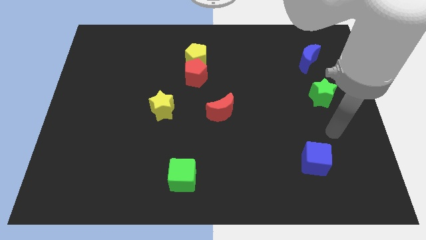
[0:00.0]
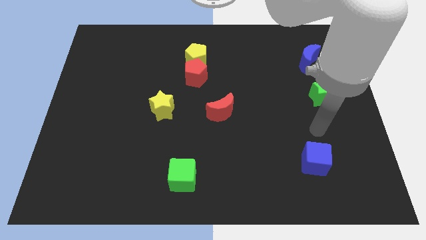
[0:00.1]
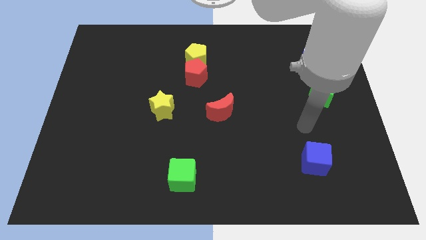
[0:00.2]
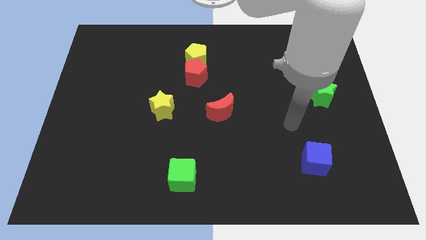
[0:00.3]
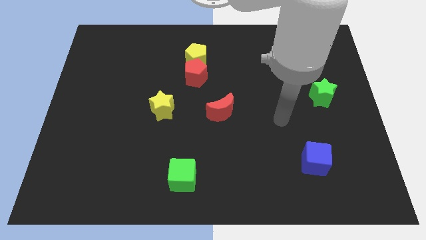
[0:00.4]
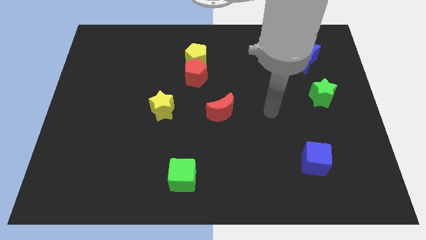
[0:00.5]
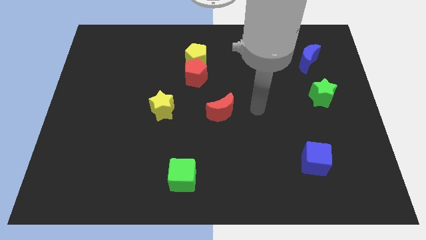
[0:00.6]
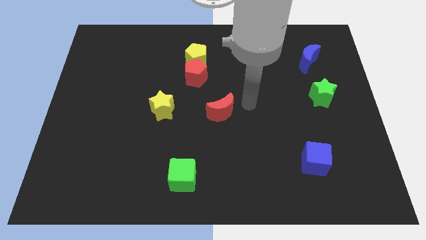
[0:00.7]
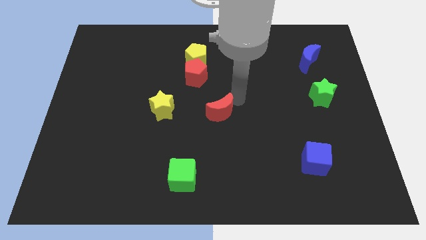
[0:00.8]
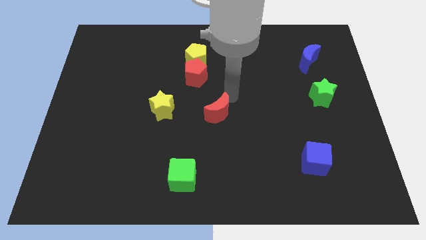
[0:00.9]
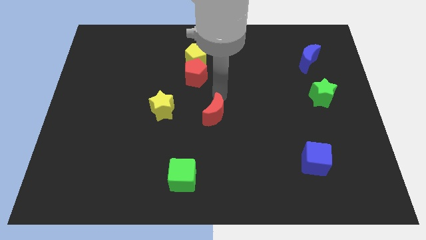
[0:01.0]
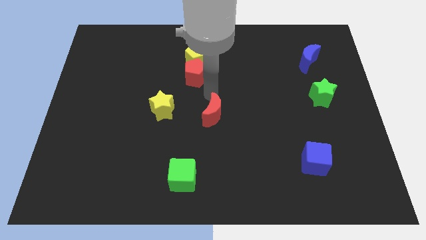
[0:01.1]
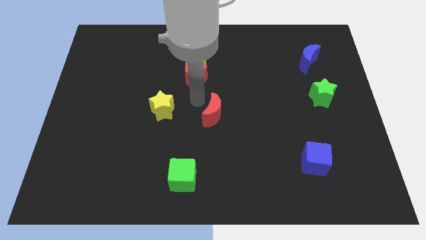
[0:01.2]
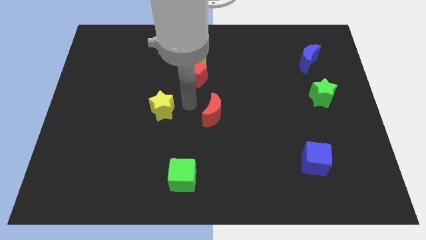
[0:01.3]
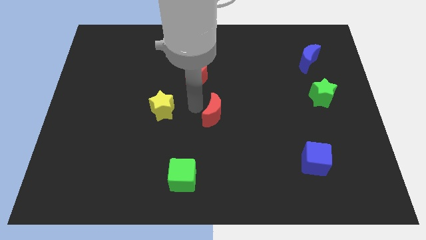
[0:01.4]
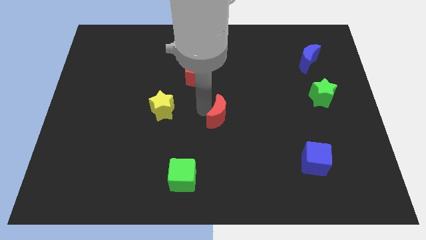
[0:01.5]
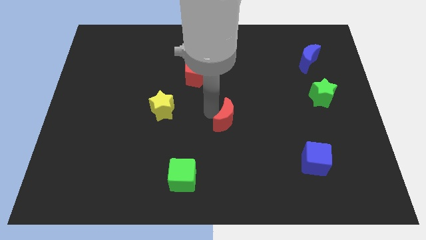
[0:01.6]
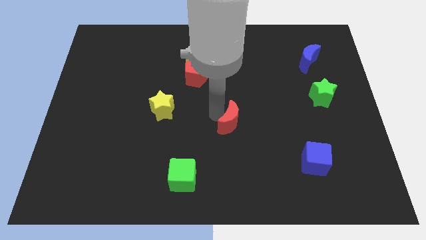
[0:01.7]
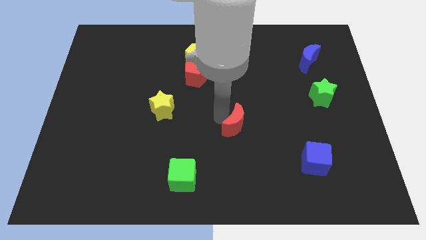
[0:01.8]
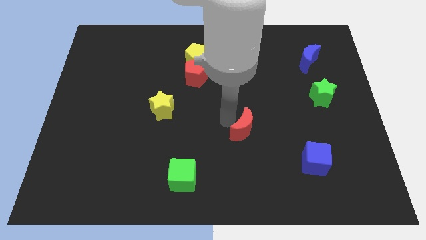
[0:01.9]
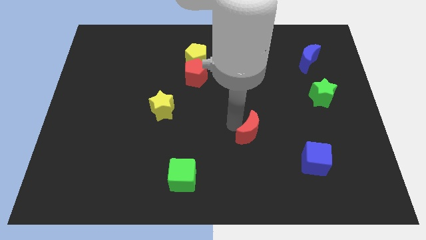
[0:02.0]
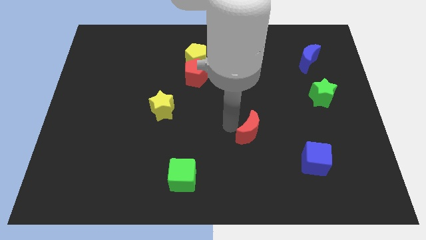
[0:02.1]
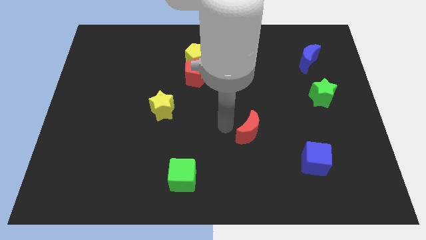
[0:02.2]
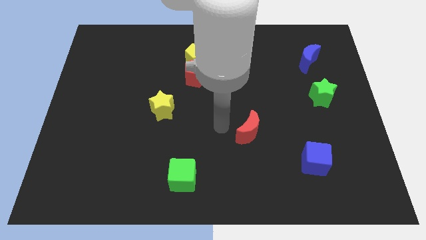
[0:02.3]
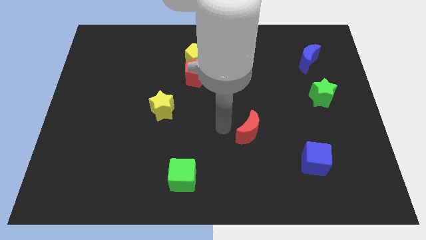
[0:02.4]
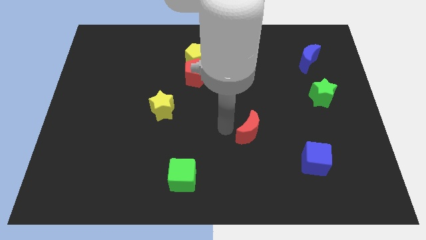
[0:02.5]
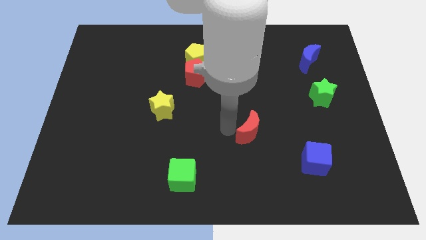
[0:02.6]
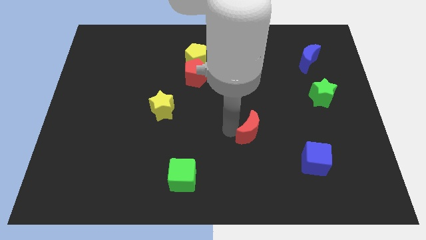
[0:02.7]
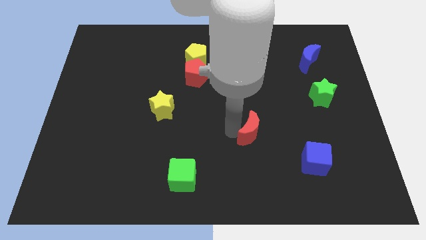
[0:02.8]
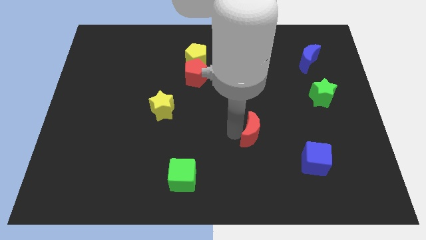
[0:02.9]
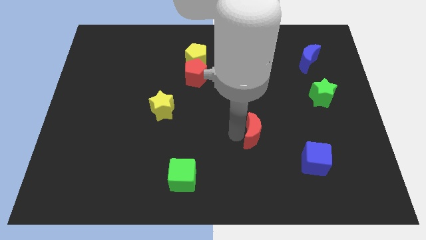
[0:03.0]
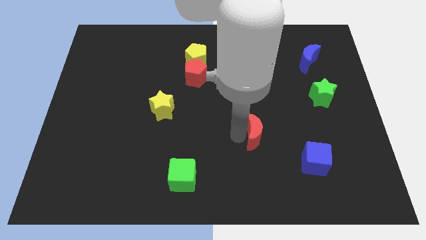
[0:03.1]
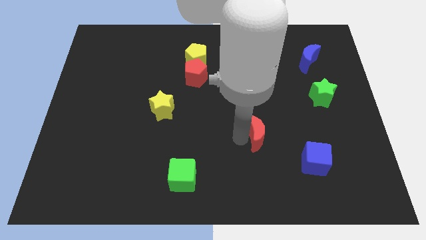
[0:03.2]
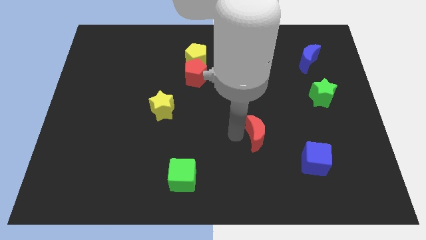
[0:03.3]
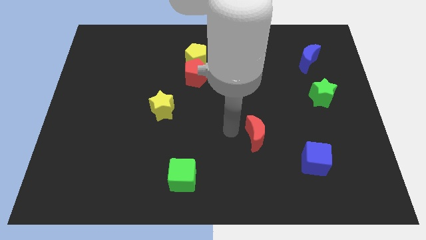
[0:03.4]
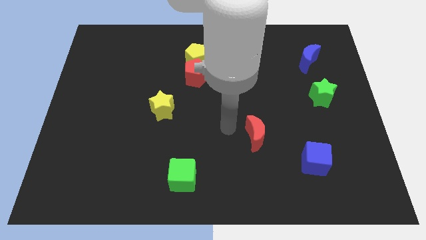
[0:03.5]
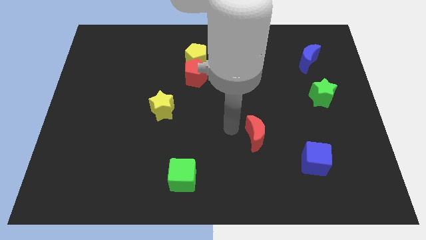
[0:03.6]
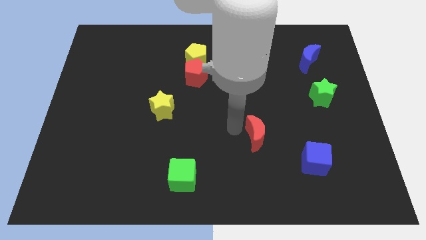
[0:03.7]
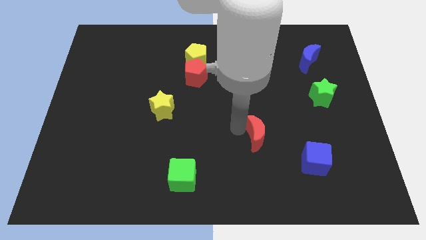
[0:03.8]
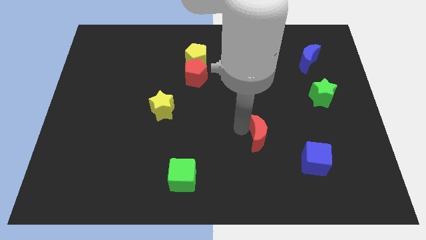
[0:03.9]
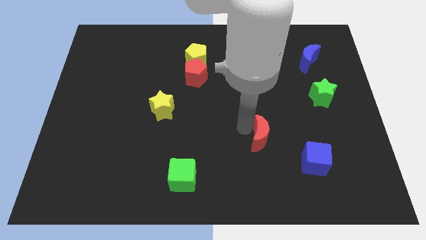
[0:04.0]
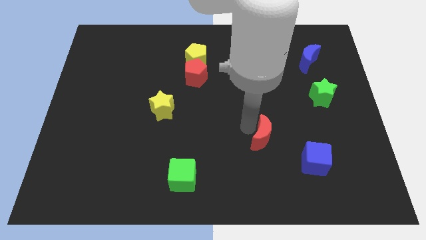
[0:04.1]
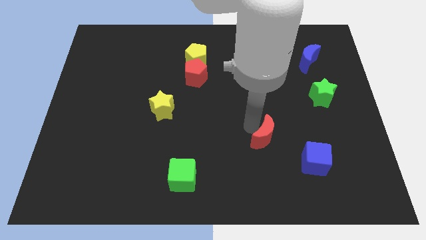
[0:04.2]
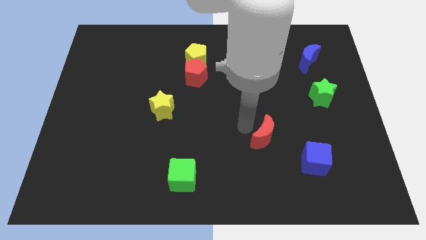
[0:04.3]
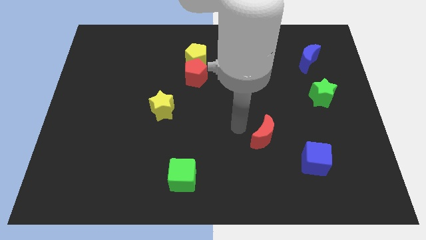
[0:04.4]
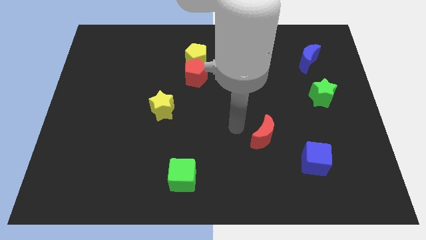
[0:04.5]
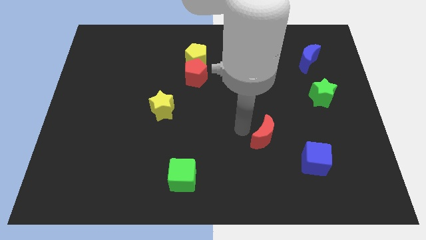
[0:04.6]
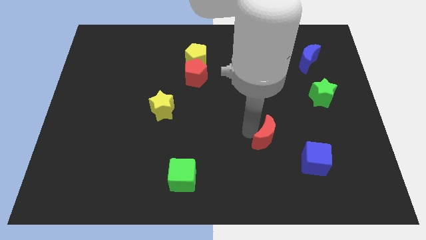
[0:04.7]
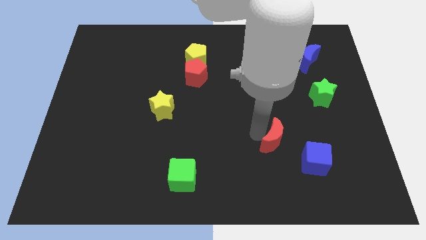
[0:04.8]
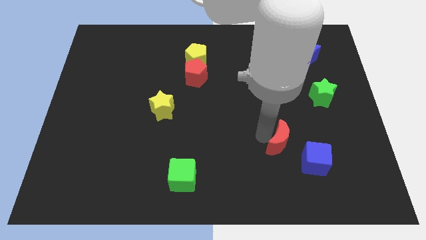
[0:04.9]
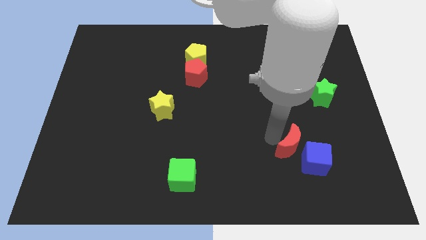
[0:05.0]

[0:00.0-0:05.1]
move the red moon next to the blue cube

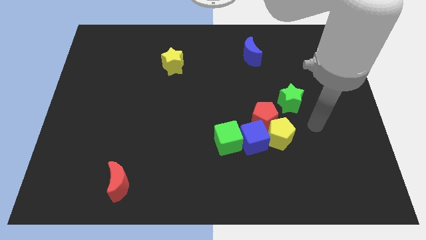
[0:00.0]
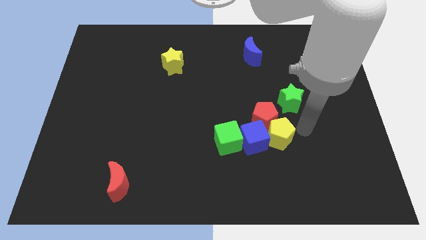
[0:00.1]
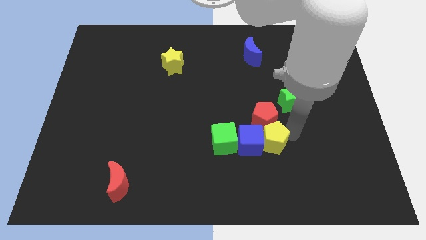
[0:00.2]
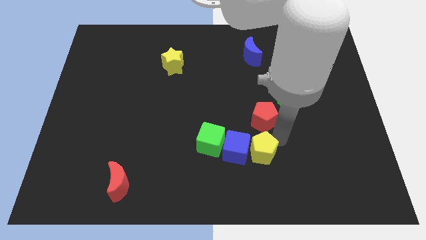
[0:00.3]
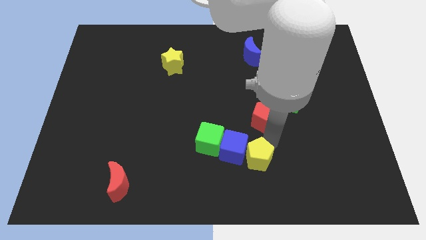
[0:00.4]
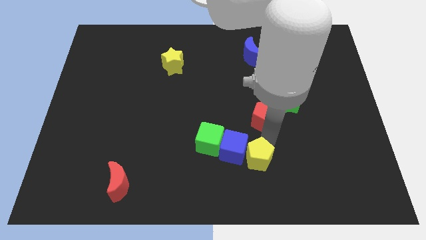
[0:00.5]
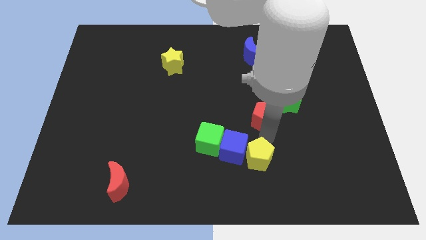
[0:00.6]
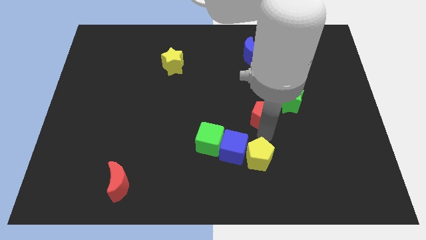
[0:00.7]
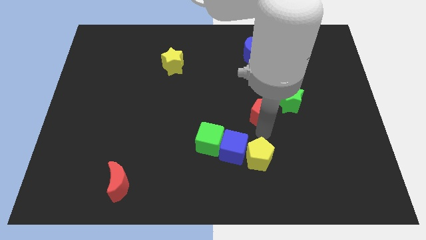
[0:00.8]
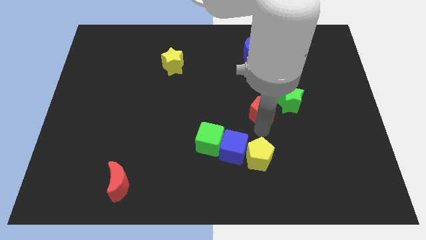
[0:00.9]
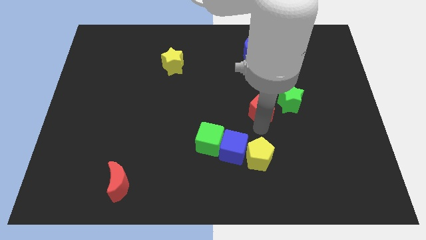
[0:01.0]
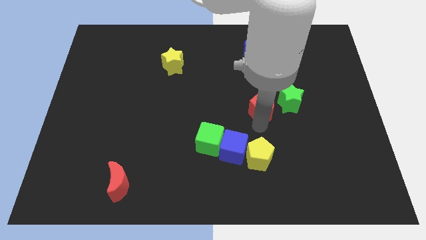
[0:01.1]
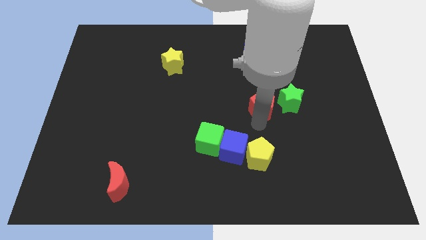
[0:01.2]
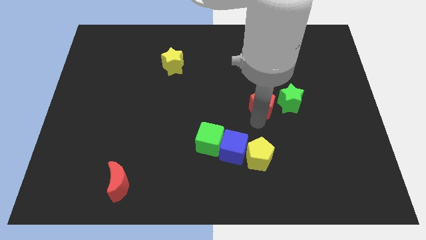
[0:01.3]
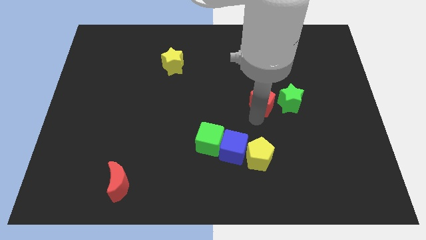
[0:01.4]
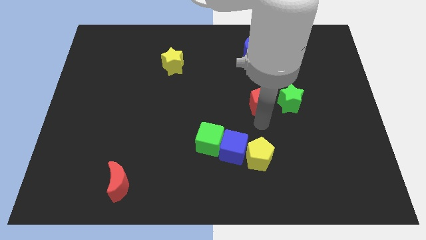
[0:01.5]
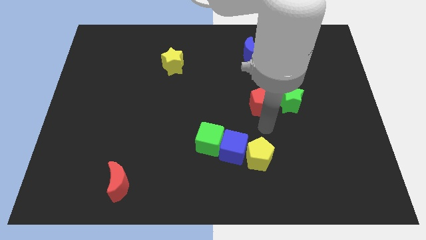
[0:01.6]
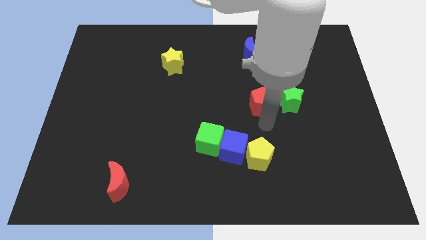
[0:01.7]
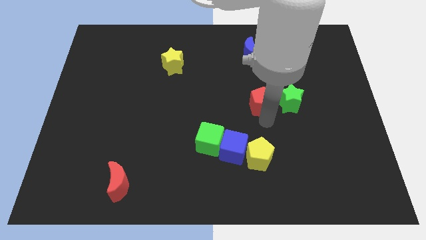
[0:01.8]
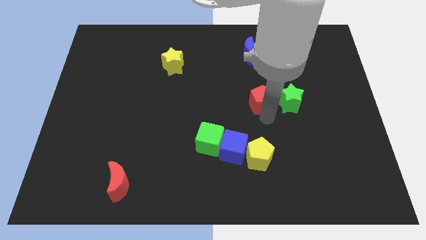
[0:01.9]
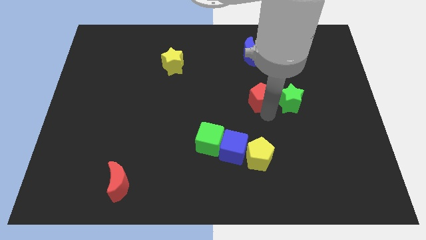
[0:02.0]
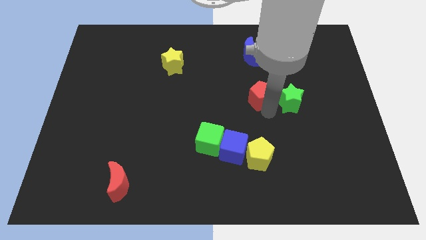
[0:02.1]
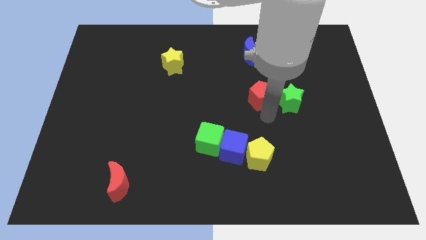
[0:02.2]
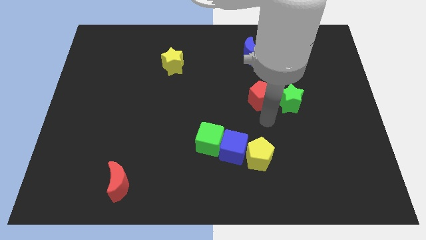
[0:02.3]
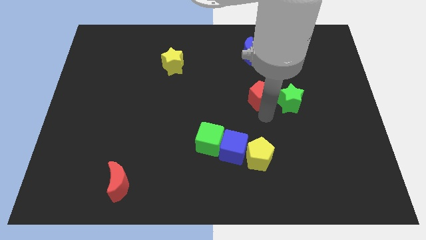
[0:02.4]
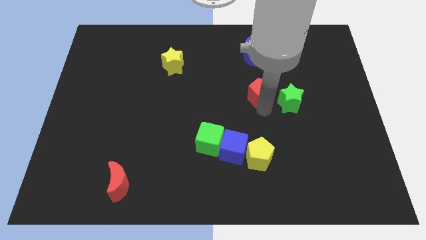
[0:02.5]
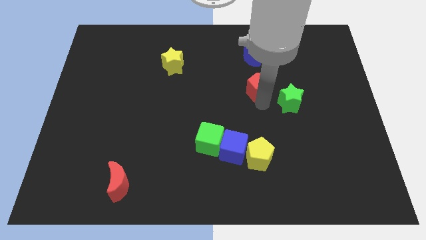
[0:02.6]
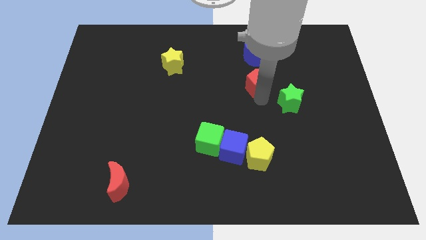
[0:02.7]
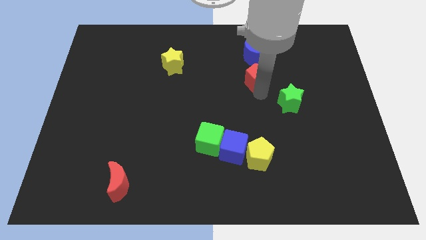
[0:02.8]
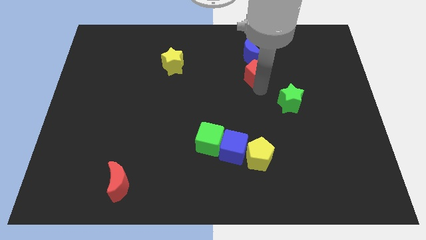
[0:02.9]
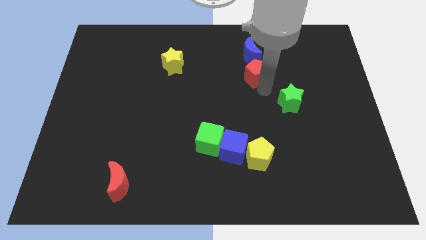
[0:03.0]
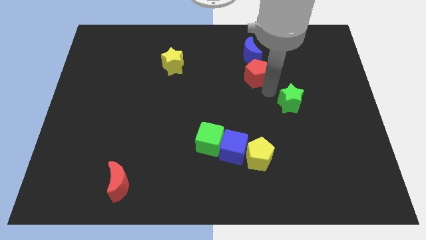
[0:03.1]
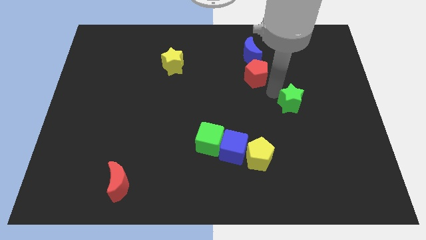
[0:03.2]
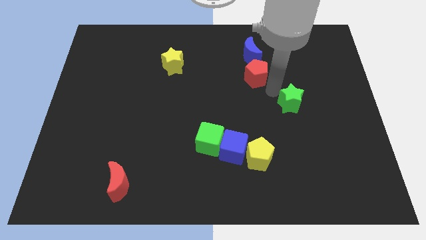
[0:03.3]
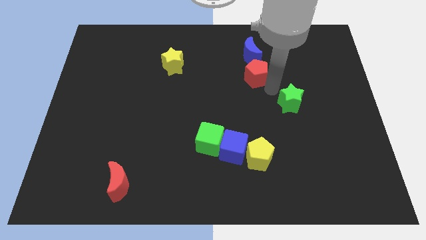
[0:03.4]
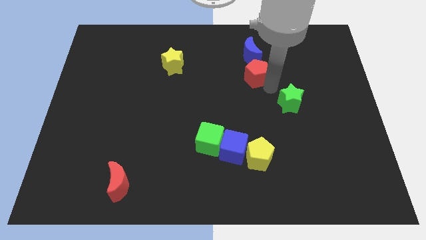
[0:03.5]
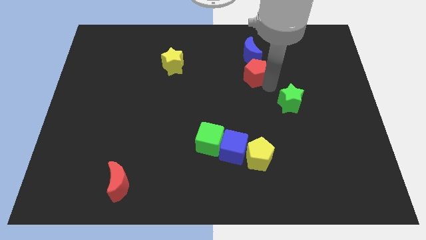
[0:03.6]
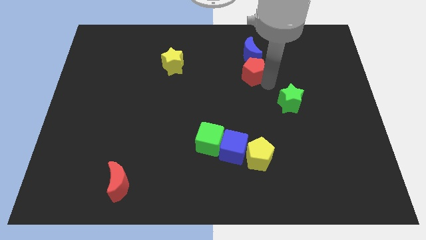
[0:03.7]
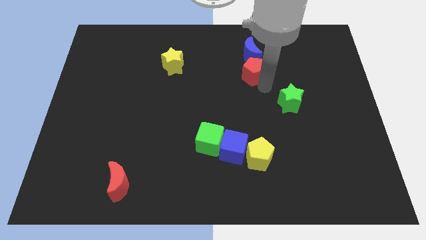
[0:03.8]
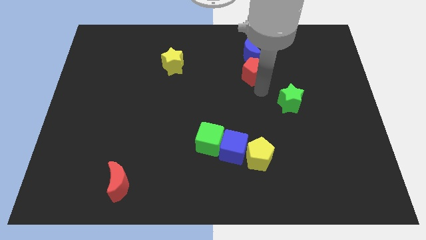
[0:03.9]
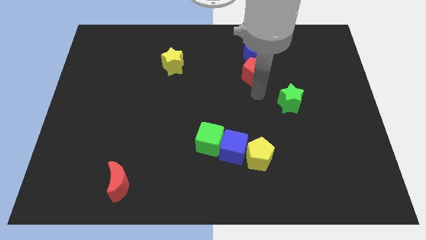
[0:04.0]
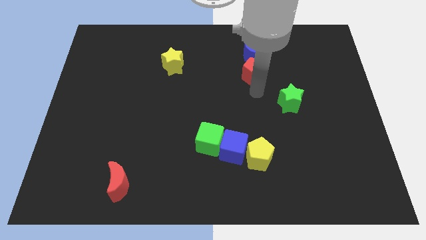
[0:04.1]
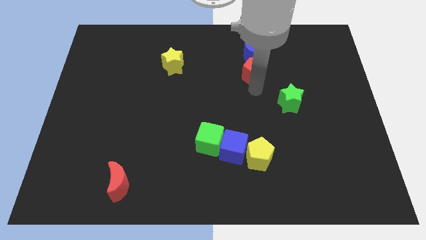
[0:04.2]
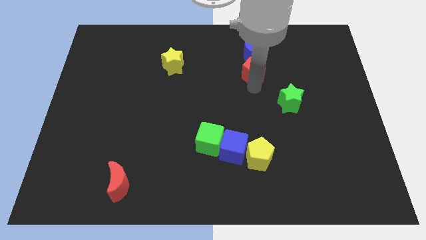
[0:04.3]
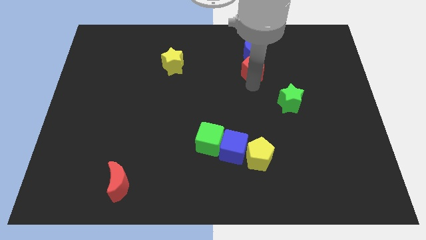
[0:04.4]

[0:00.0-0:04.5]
move the red pentagon to the blue moon
